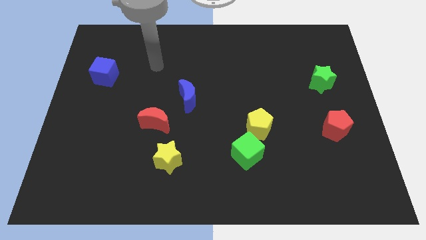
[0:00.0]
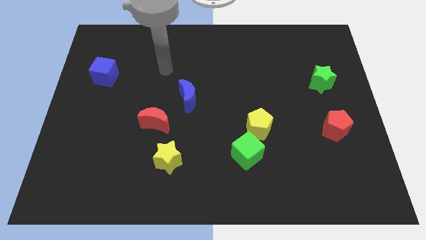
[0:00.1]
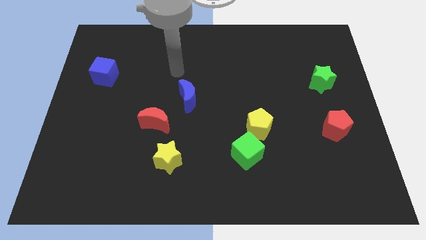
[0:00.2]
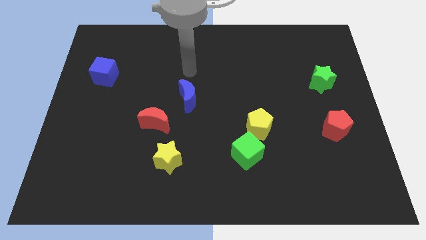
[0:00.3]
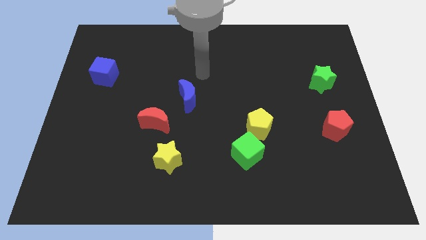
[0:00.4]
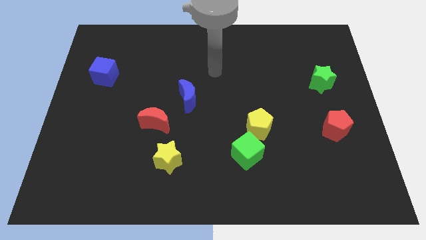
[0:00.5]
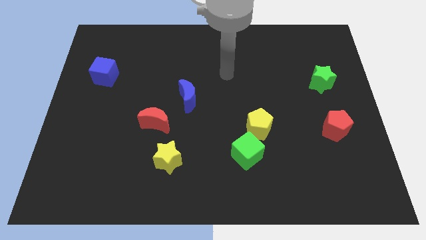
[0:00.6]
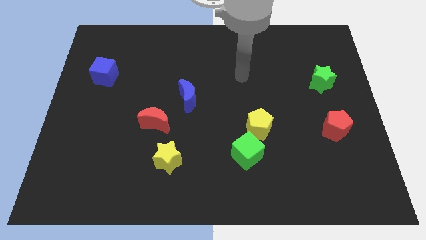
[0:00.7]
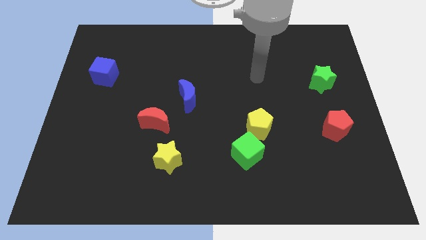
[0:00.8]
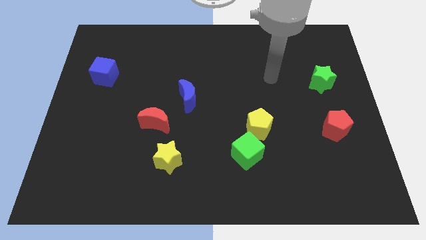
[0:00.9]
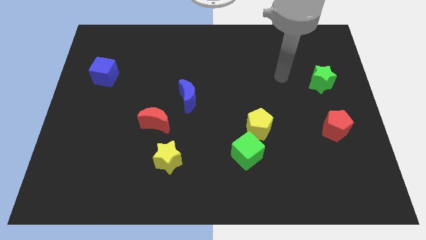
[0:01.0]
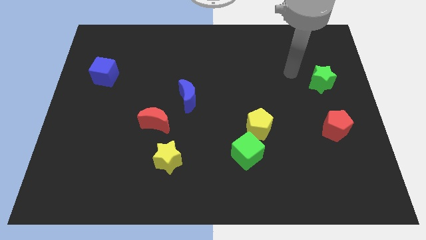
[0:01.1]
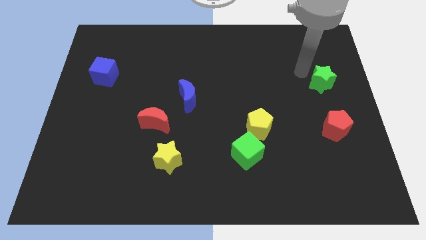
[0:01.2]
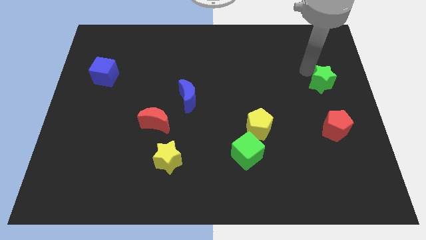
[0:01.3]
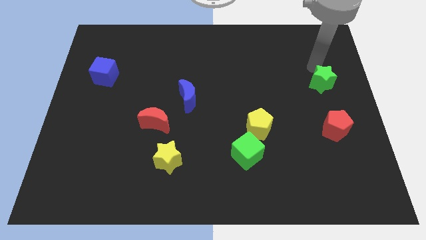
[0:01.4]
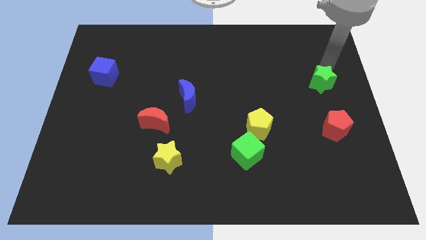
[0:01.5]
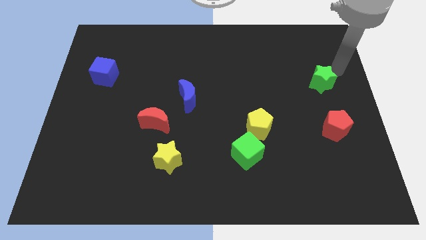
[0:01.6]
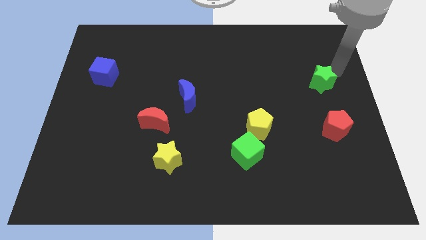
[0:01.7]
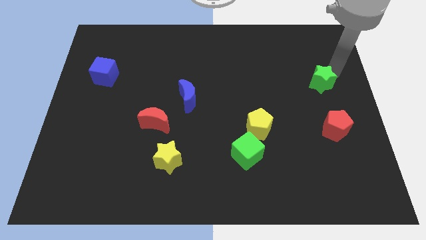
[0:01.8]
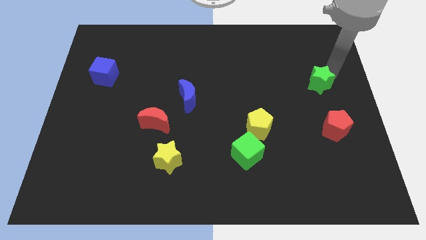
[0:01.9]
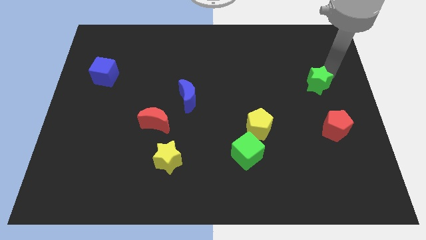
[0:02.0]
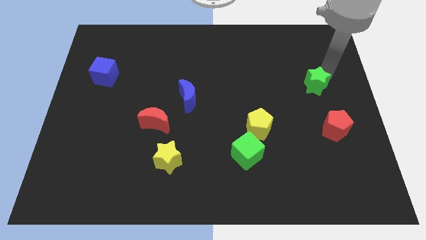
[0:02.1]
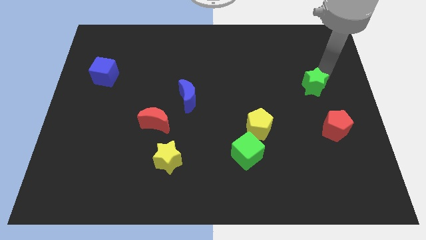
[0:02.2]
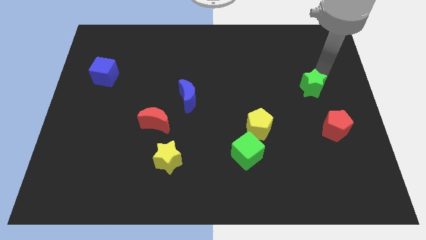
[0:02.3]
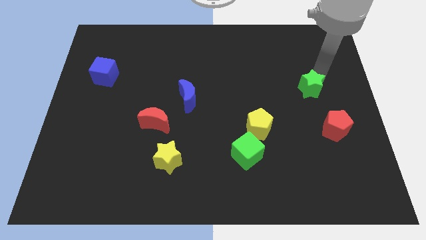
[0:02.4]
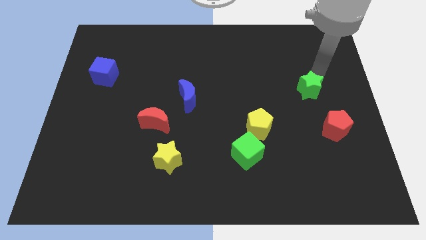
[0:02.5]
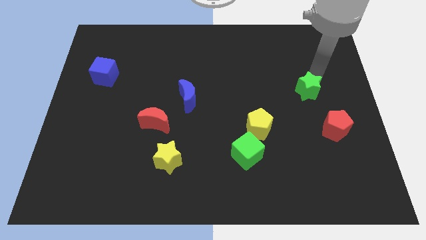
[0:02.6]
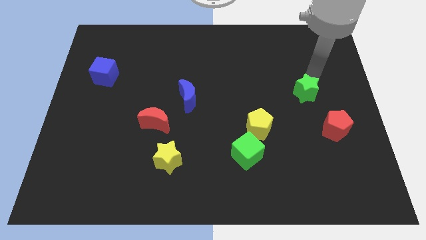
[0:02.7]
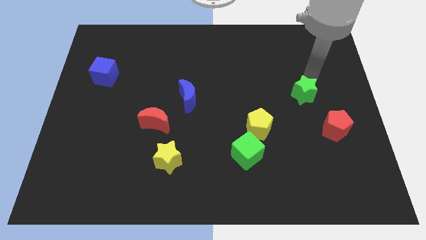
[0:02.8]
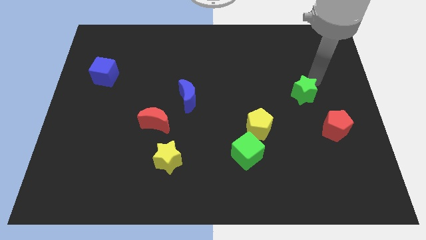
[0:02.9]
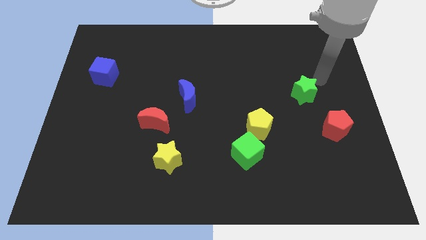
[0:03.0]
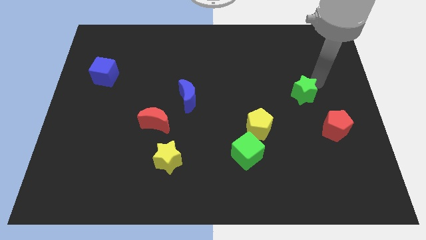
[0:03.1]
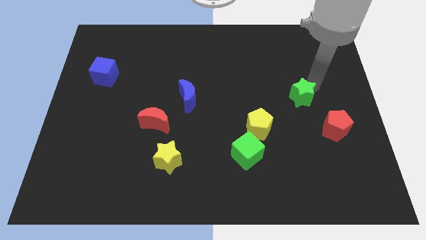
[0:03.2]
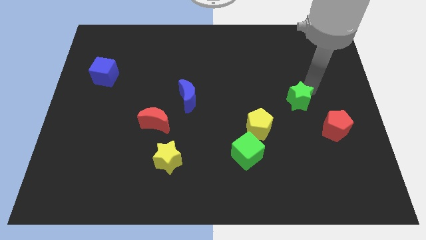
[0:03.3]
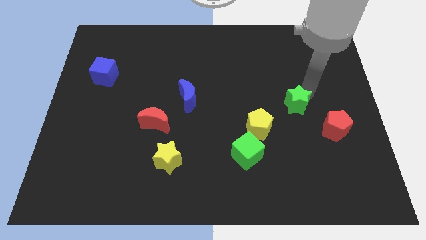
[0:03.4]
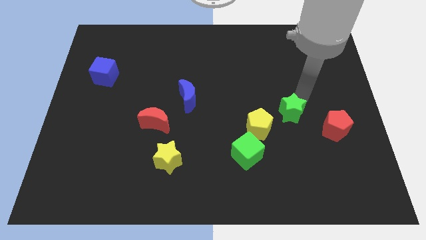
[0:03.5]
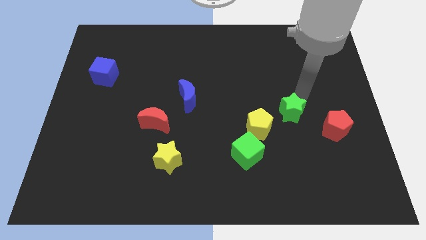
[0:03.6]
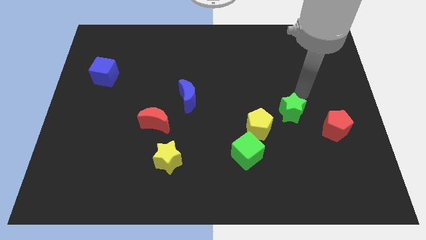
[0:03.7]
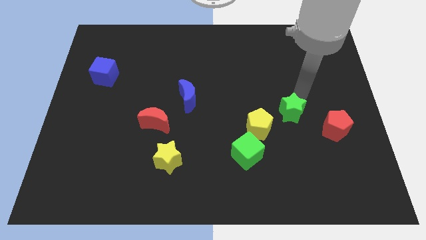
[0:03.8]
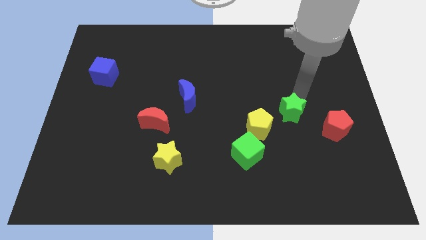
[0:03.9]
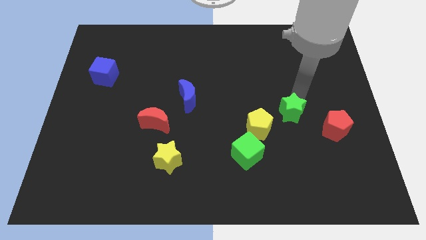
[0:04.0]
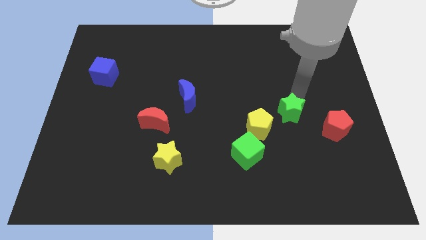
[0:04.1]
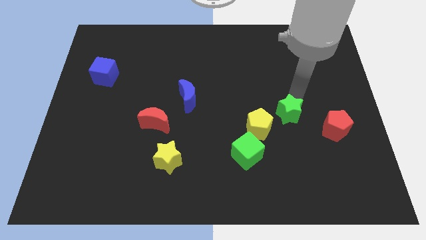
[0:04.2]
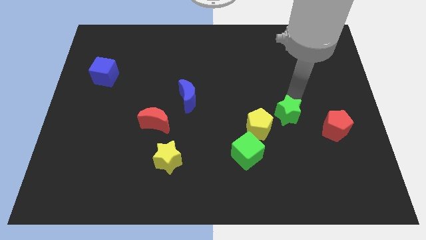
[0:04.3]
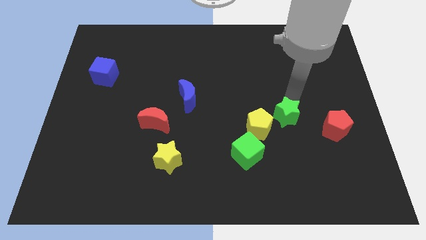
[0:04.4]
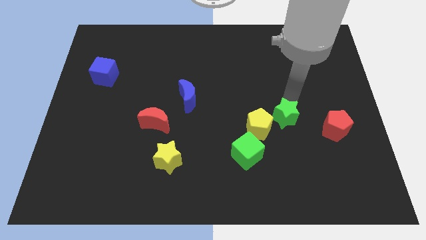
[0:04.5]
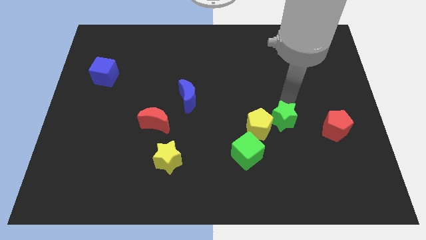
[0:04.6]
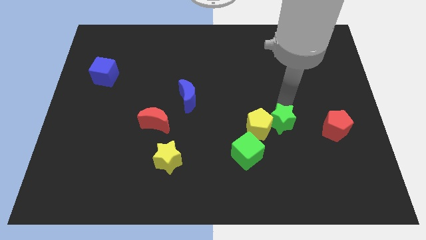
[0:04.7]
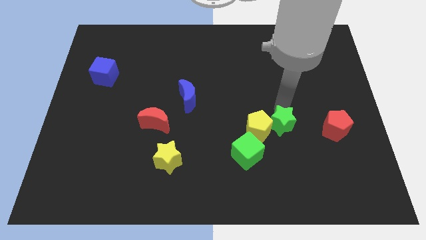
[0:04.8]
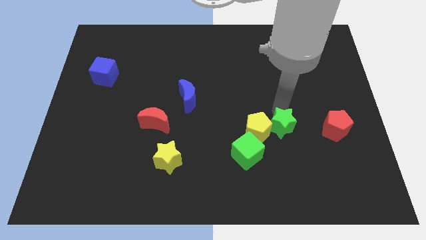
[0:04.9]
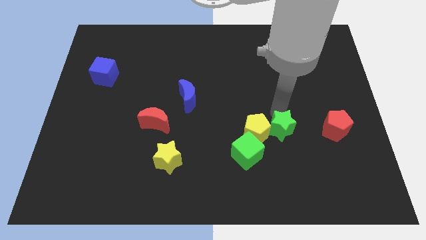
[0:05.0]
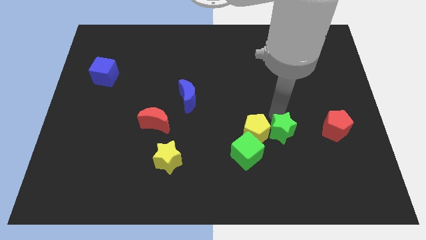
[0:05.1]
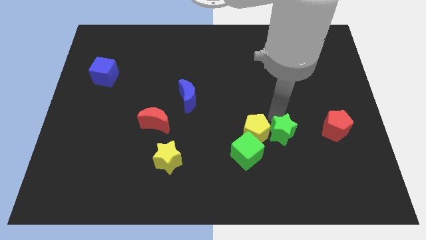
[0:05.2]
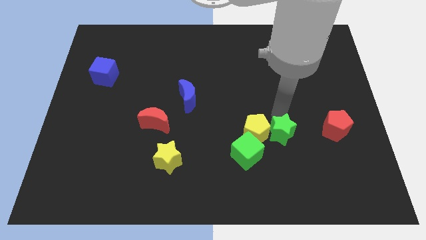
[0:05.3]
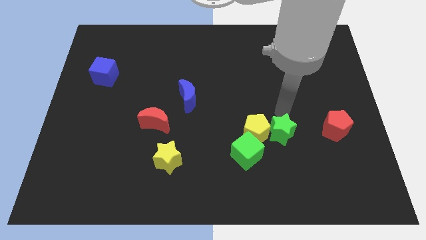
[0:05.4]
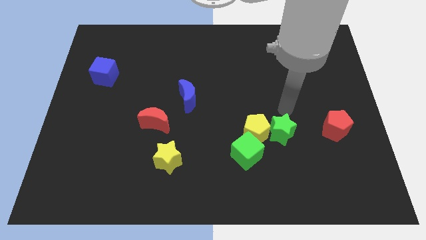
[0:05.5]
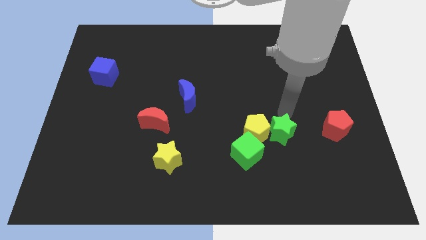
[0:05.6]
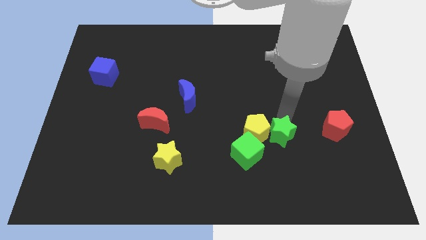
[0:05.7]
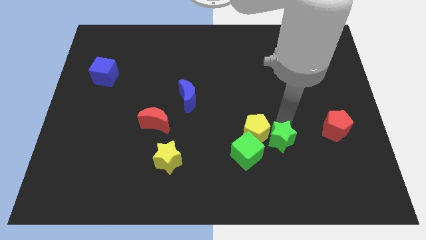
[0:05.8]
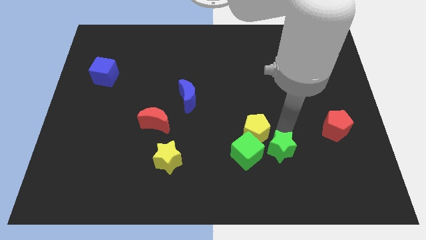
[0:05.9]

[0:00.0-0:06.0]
slide the green star down and left

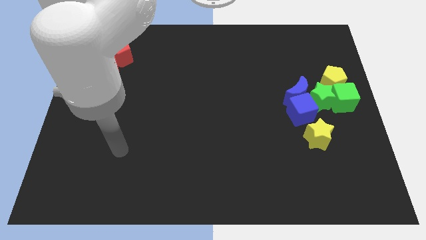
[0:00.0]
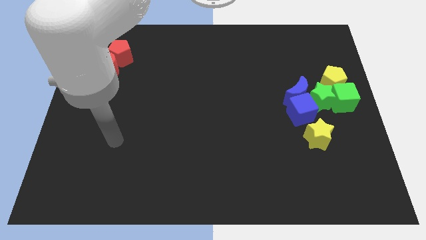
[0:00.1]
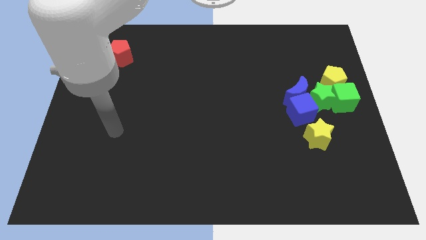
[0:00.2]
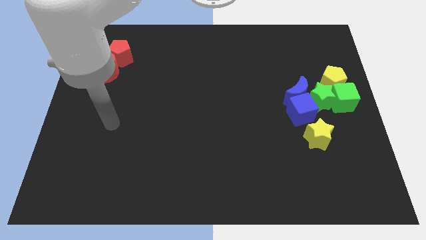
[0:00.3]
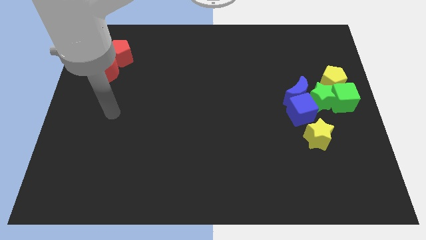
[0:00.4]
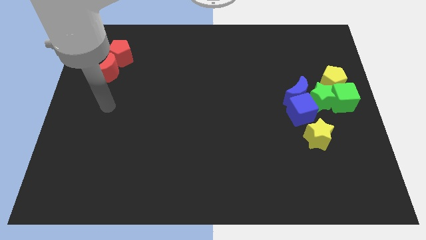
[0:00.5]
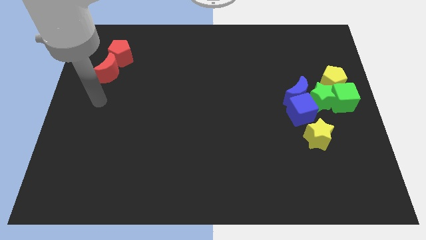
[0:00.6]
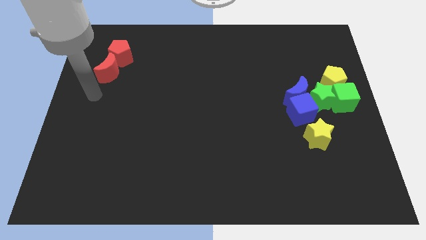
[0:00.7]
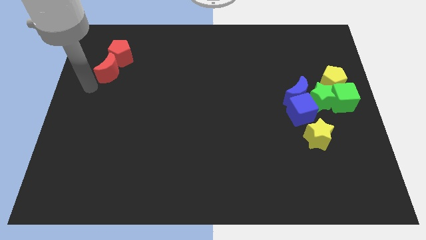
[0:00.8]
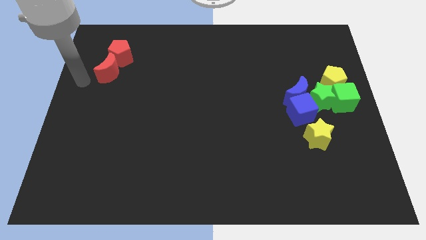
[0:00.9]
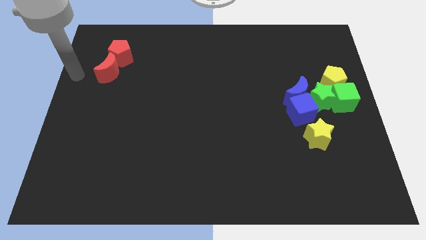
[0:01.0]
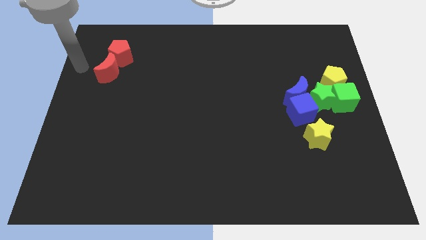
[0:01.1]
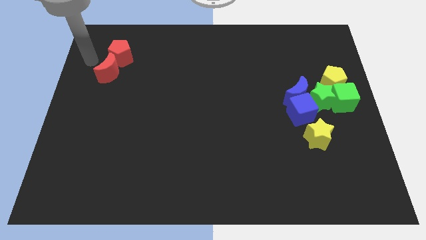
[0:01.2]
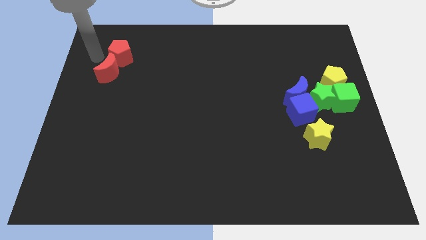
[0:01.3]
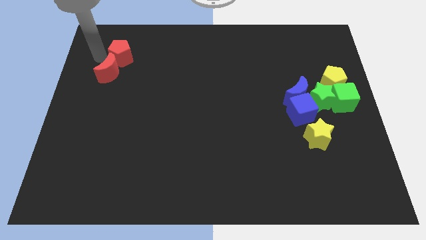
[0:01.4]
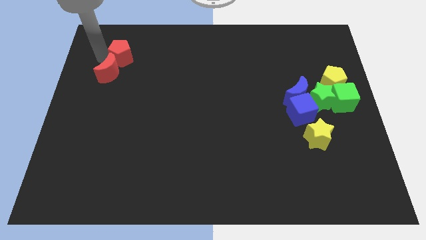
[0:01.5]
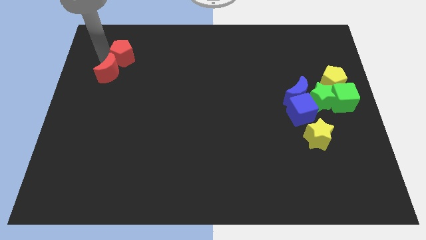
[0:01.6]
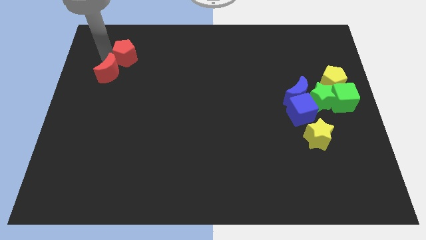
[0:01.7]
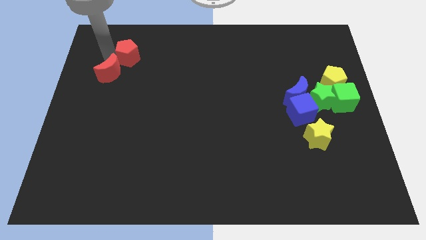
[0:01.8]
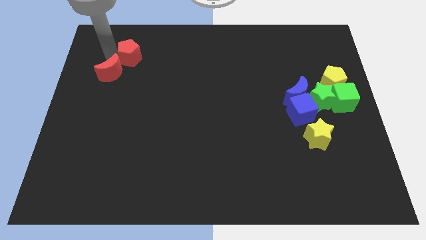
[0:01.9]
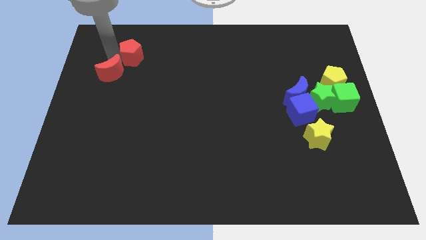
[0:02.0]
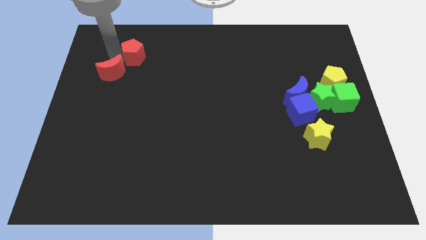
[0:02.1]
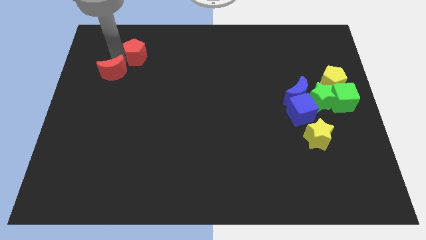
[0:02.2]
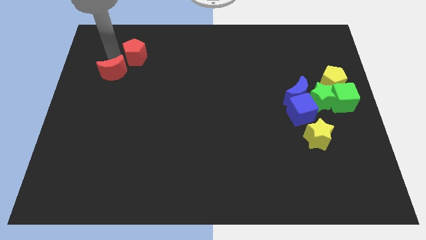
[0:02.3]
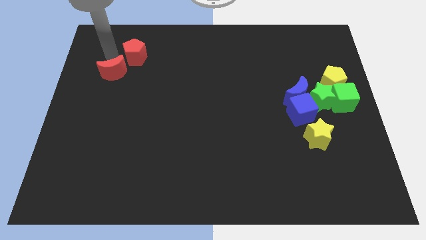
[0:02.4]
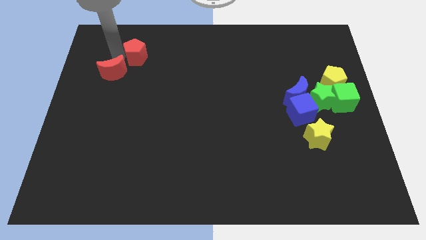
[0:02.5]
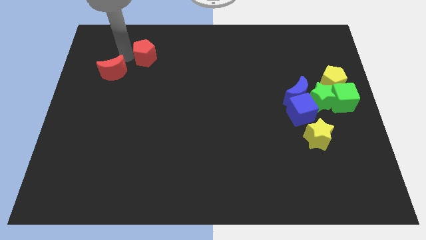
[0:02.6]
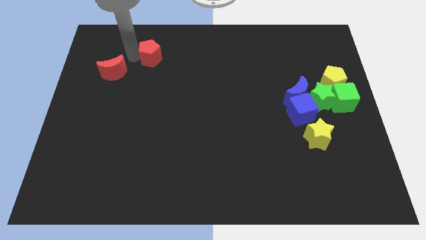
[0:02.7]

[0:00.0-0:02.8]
push the red pentagon to the right a little
